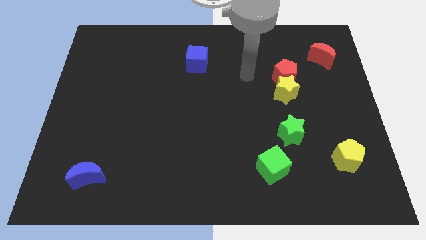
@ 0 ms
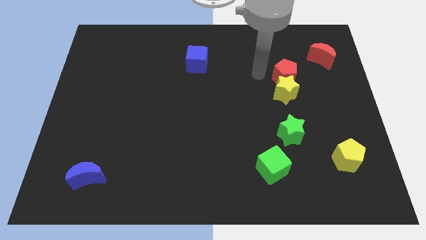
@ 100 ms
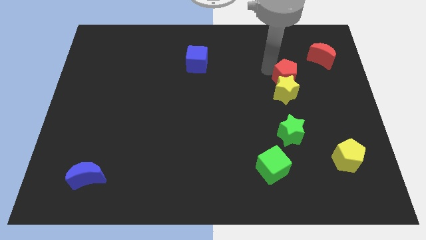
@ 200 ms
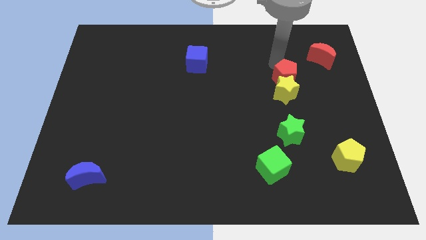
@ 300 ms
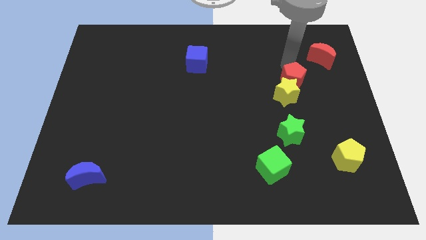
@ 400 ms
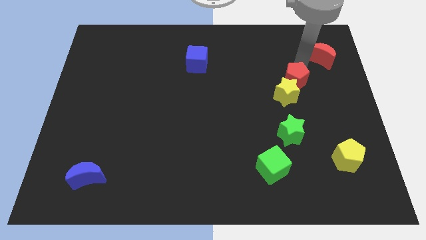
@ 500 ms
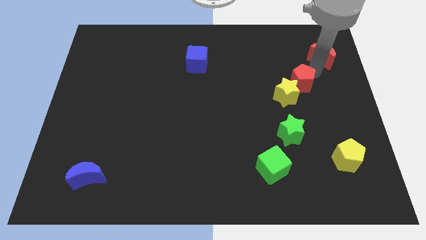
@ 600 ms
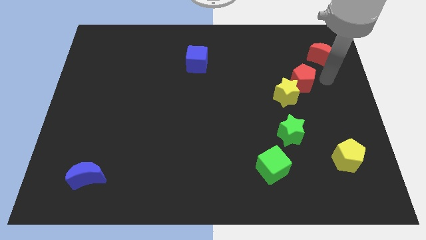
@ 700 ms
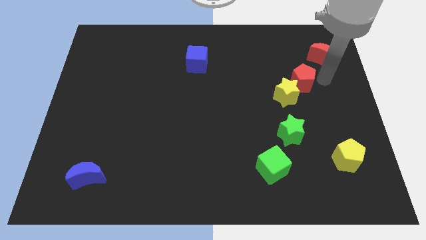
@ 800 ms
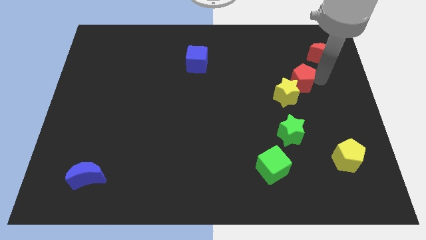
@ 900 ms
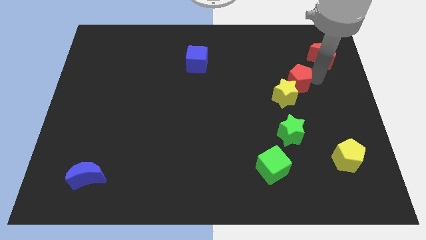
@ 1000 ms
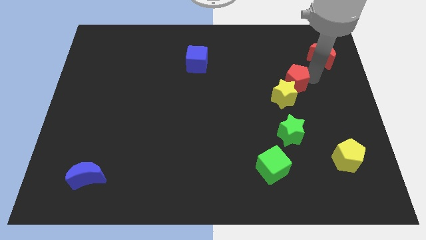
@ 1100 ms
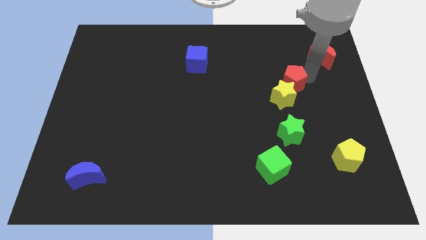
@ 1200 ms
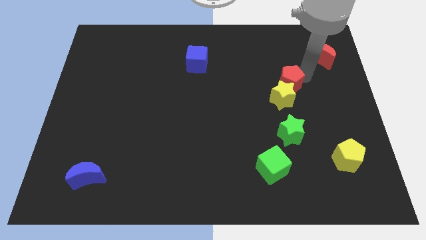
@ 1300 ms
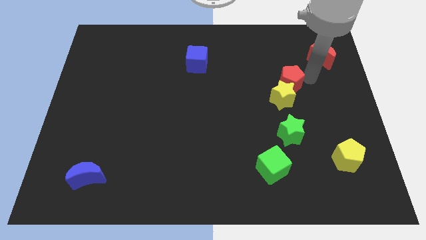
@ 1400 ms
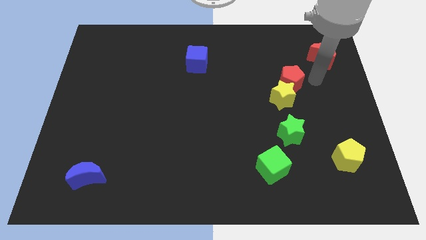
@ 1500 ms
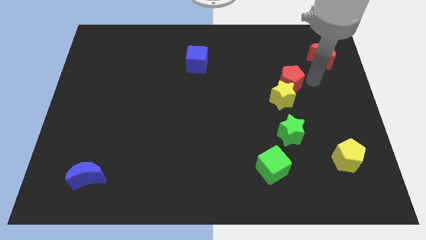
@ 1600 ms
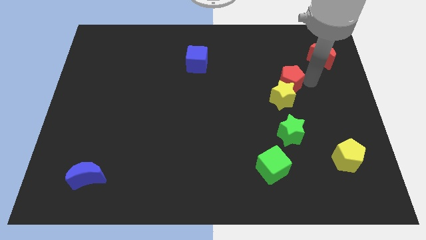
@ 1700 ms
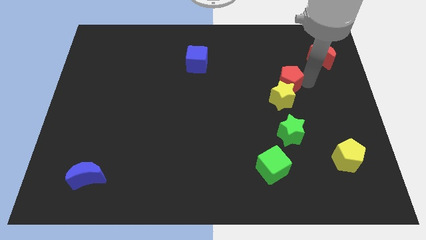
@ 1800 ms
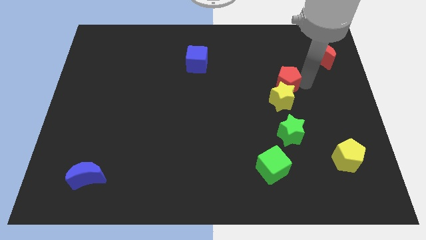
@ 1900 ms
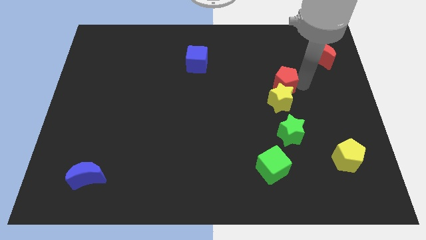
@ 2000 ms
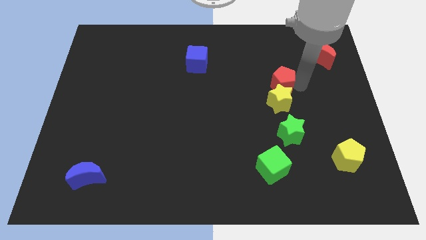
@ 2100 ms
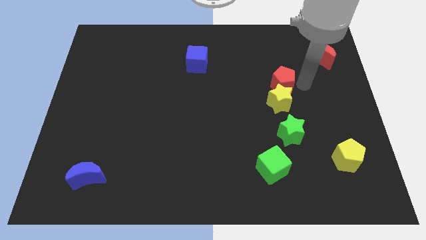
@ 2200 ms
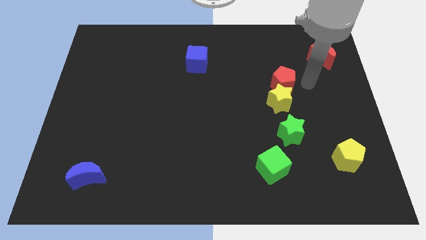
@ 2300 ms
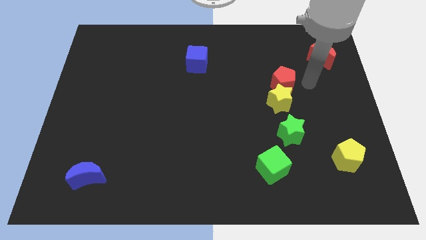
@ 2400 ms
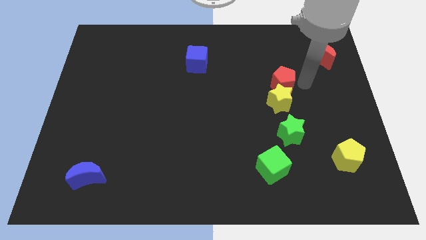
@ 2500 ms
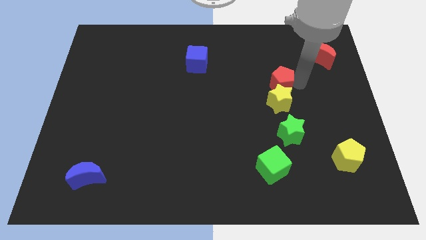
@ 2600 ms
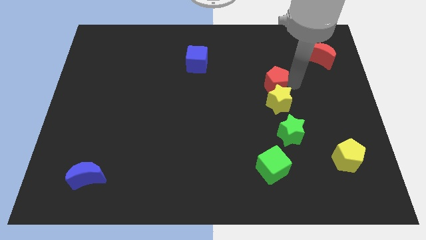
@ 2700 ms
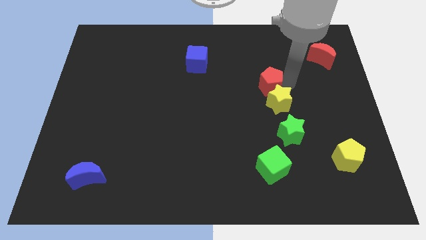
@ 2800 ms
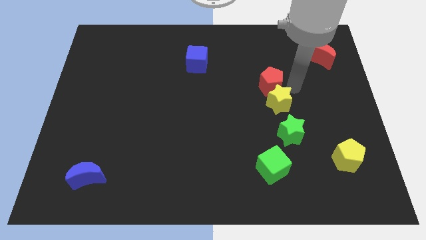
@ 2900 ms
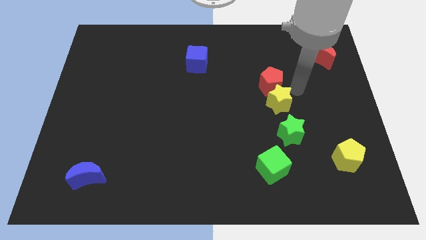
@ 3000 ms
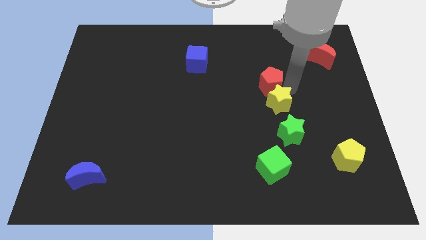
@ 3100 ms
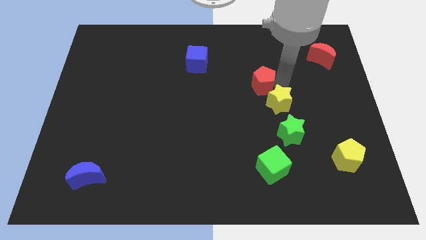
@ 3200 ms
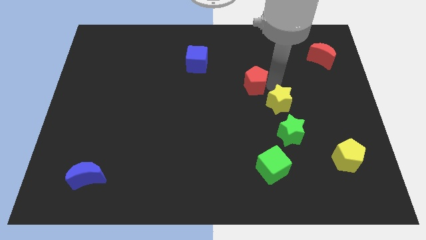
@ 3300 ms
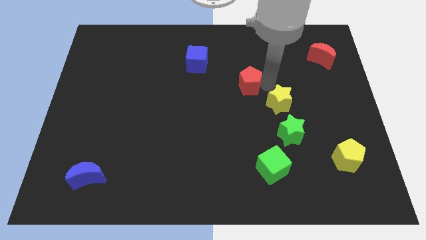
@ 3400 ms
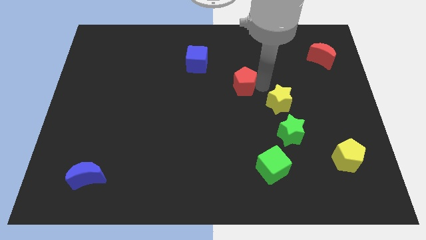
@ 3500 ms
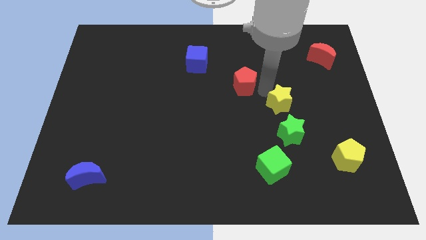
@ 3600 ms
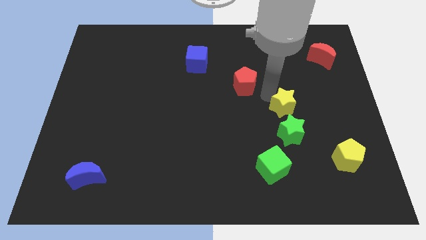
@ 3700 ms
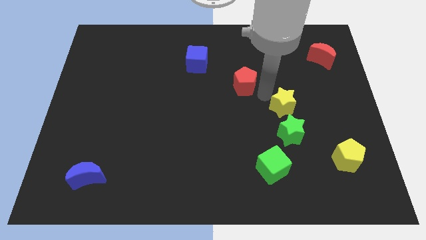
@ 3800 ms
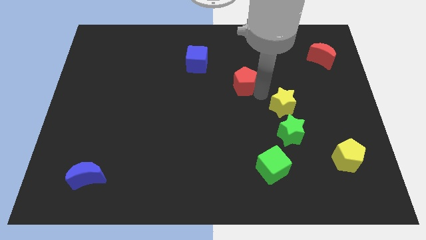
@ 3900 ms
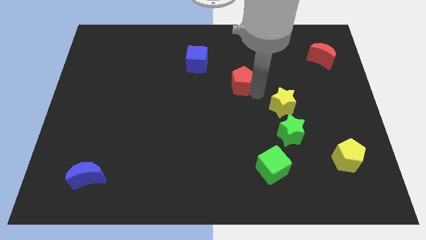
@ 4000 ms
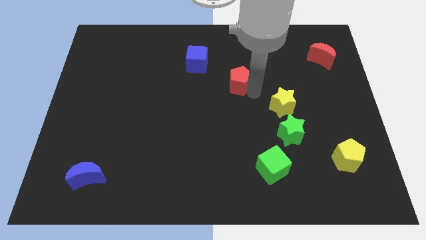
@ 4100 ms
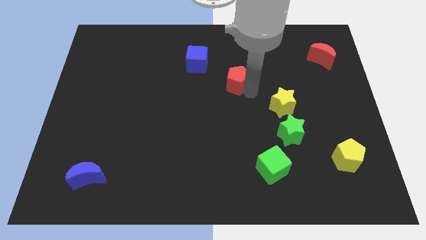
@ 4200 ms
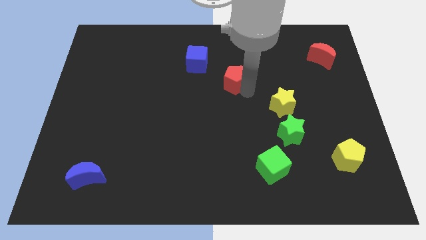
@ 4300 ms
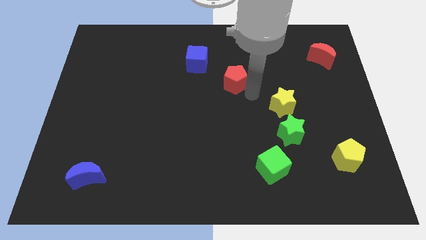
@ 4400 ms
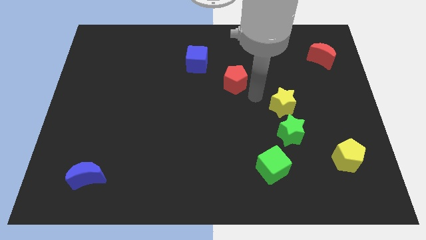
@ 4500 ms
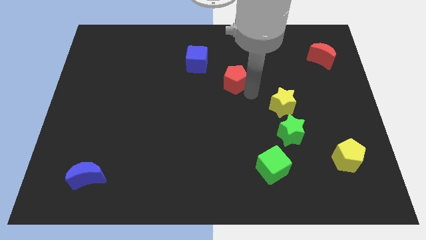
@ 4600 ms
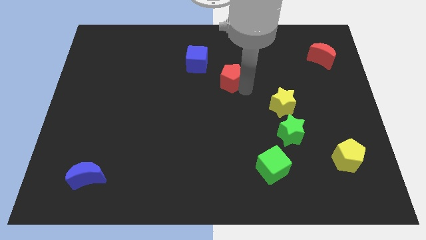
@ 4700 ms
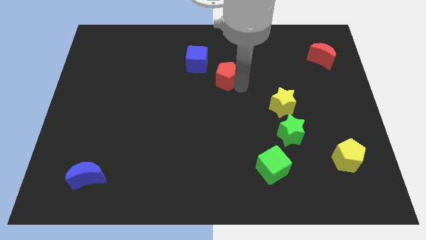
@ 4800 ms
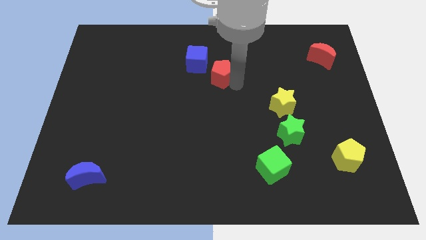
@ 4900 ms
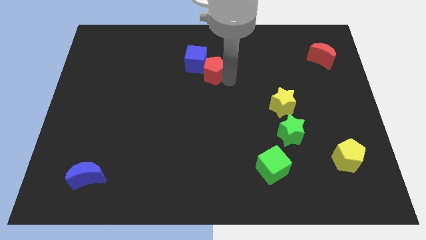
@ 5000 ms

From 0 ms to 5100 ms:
push the red pentagon next to the blue cube

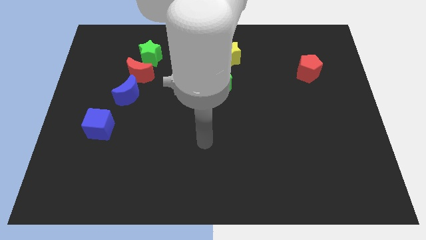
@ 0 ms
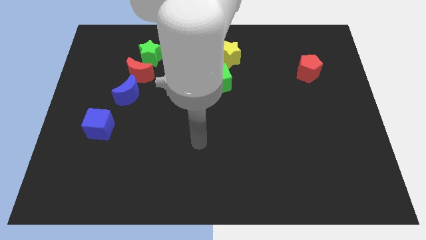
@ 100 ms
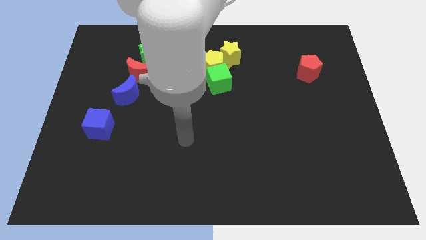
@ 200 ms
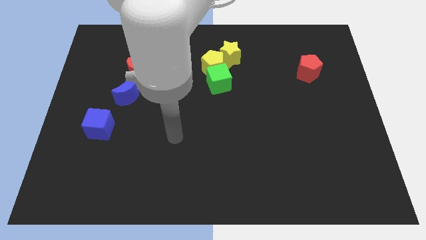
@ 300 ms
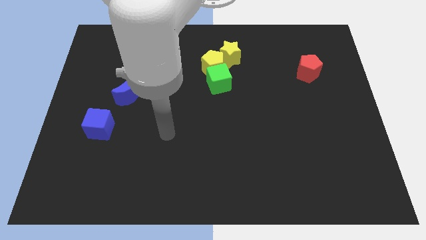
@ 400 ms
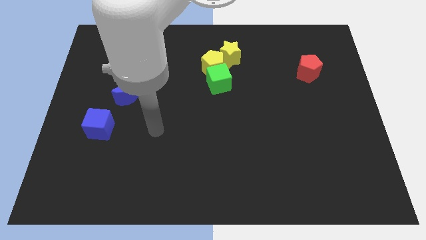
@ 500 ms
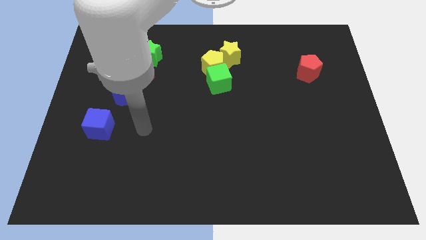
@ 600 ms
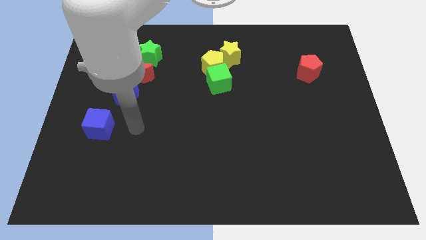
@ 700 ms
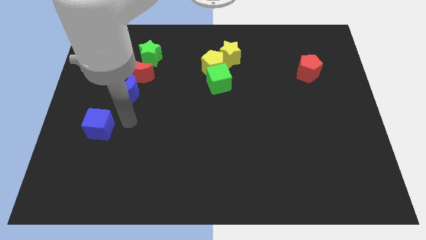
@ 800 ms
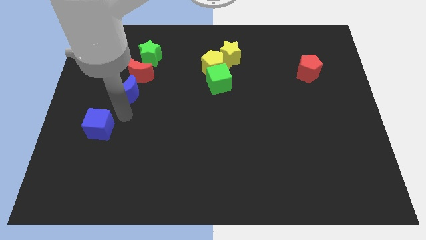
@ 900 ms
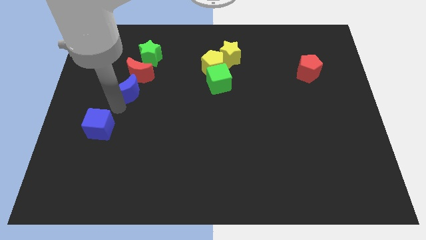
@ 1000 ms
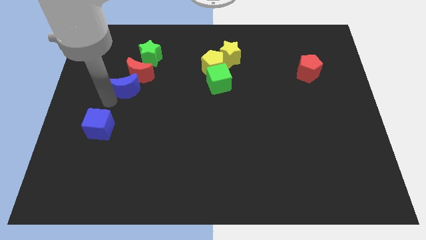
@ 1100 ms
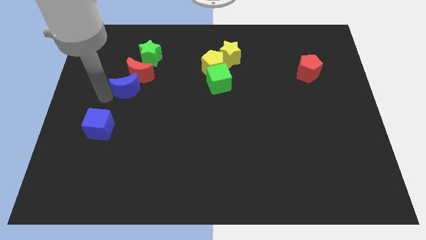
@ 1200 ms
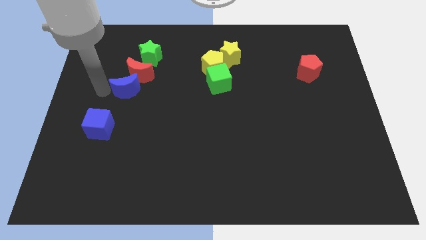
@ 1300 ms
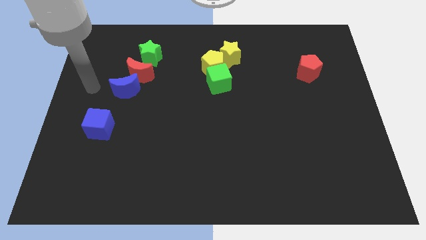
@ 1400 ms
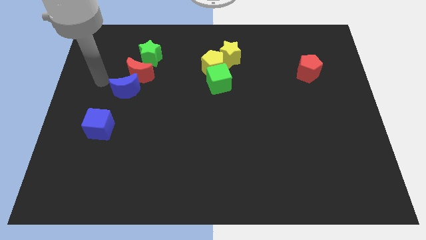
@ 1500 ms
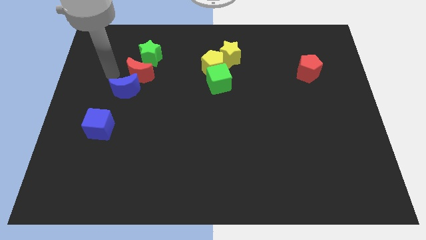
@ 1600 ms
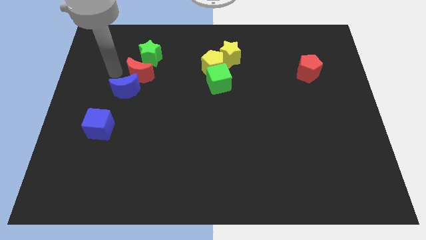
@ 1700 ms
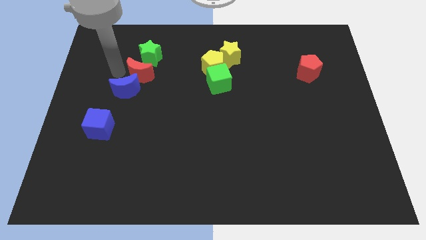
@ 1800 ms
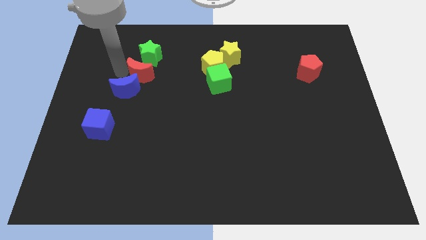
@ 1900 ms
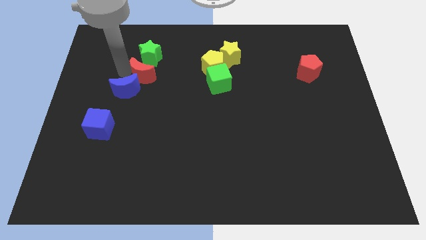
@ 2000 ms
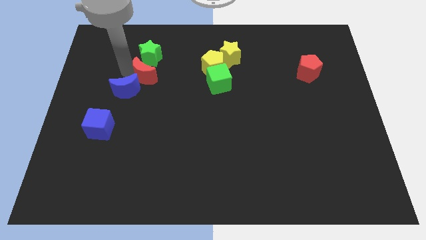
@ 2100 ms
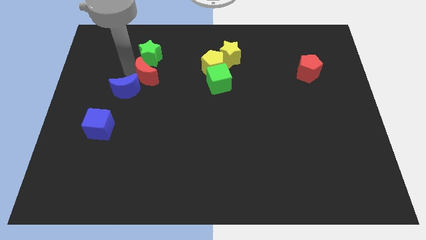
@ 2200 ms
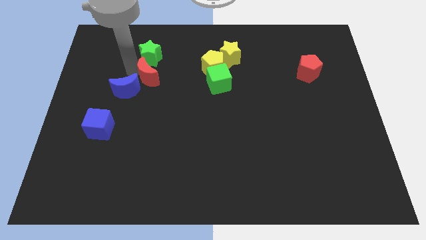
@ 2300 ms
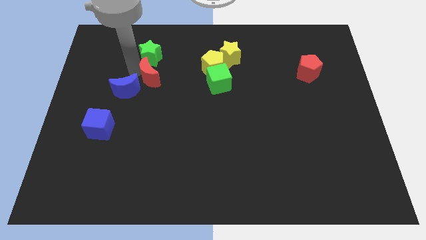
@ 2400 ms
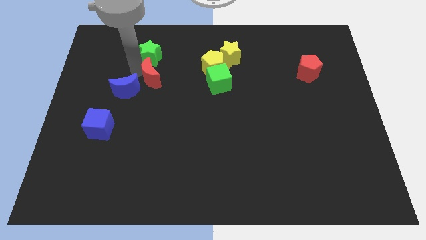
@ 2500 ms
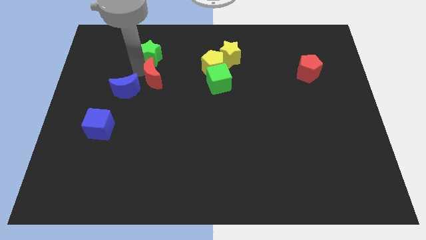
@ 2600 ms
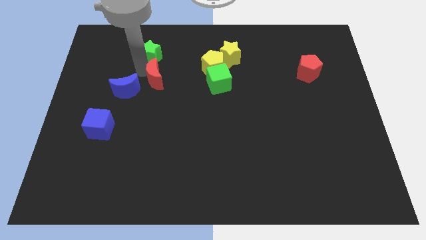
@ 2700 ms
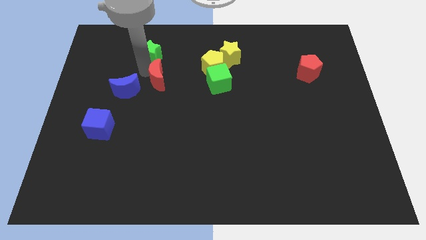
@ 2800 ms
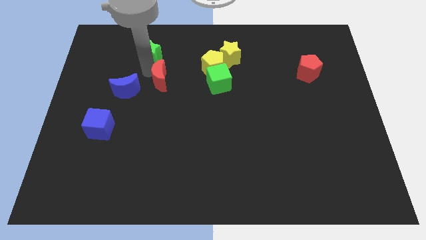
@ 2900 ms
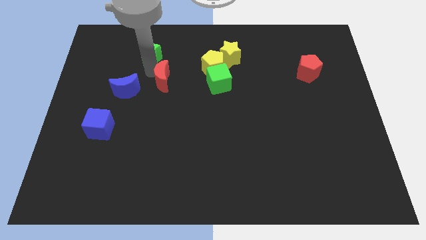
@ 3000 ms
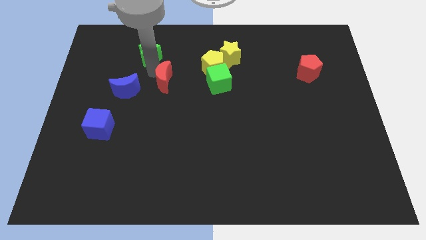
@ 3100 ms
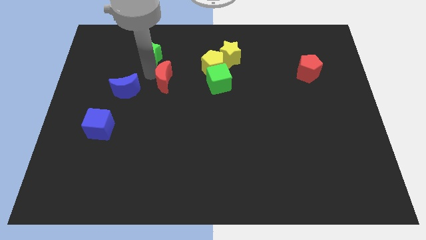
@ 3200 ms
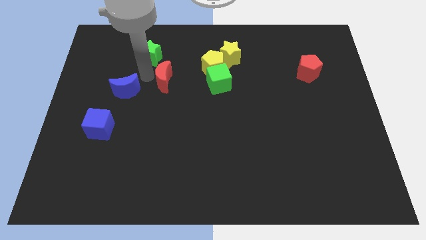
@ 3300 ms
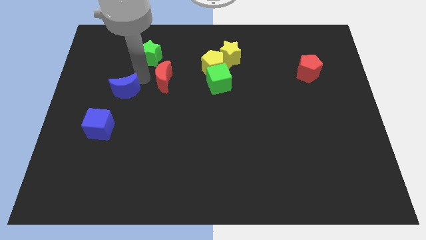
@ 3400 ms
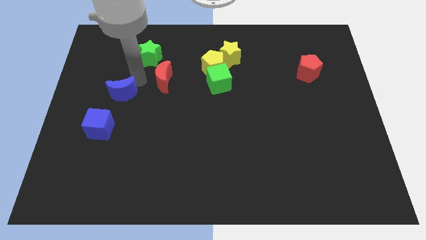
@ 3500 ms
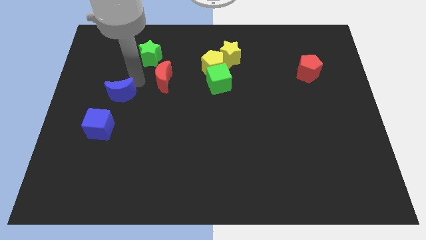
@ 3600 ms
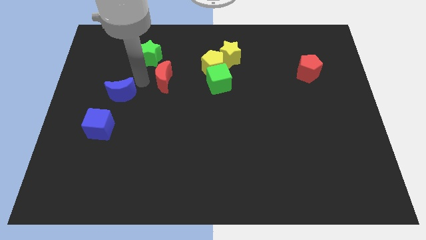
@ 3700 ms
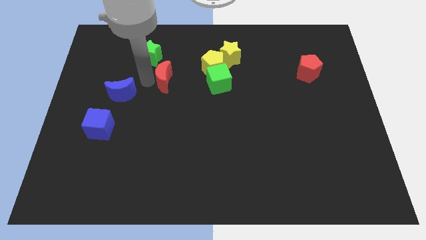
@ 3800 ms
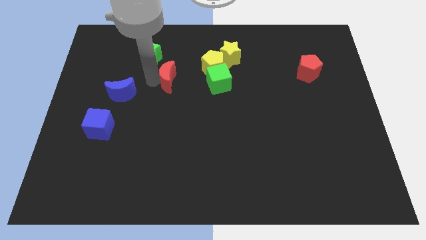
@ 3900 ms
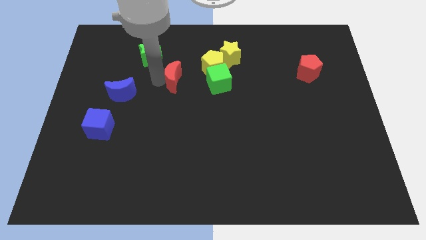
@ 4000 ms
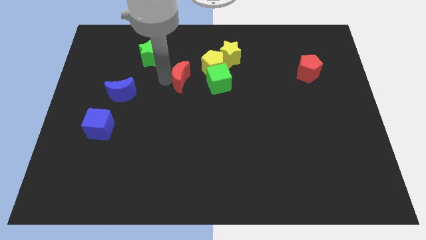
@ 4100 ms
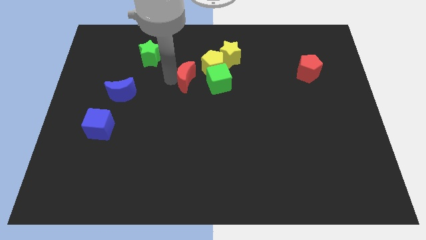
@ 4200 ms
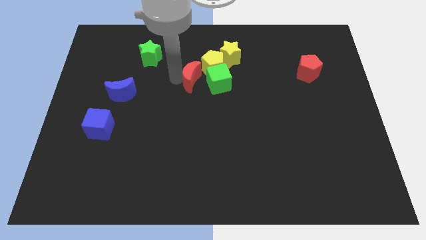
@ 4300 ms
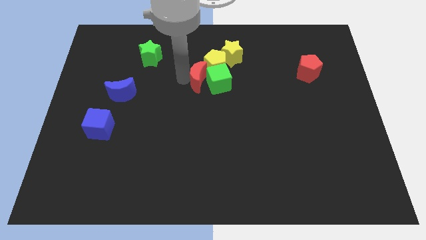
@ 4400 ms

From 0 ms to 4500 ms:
push the red moon to the green cube
